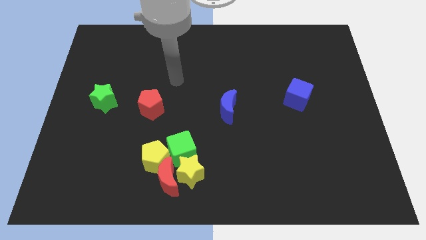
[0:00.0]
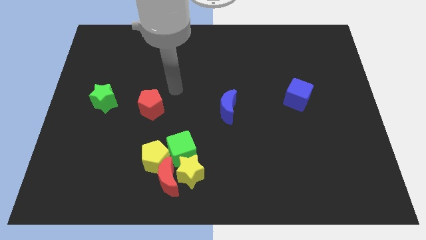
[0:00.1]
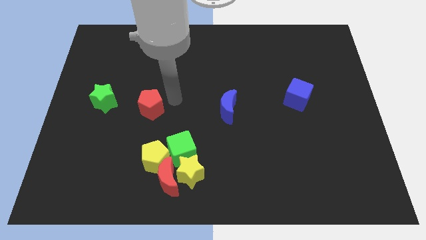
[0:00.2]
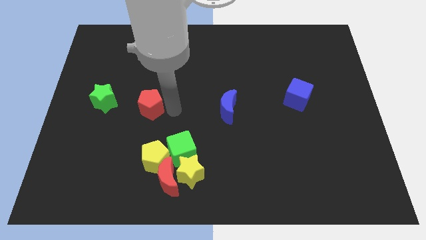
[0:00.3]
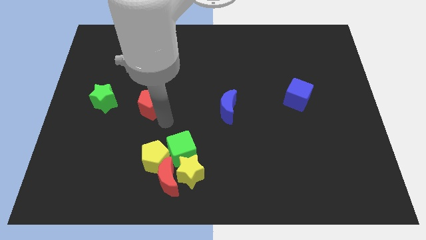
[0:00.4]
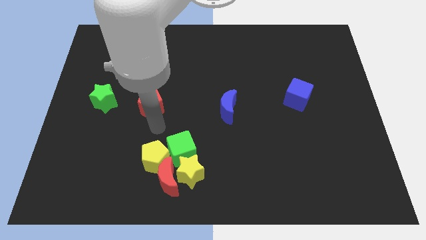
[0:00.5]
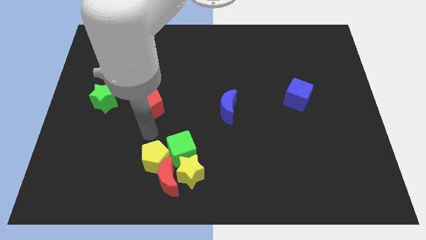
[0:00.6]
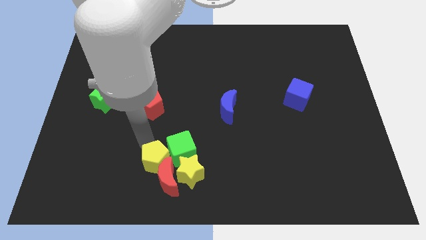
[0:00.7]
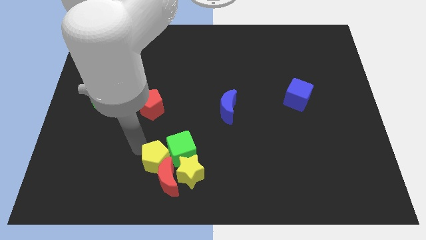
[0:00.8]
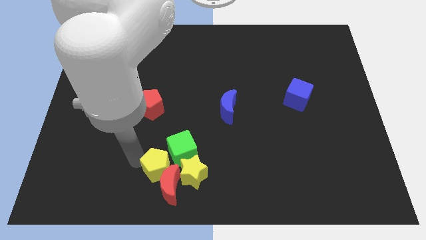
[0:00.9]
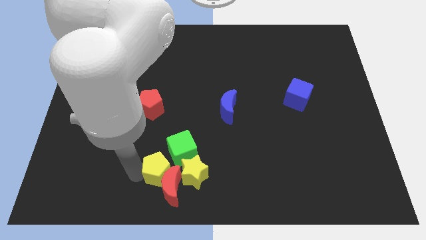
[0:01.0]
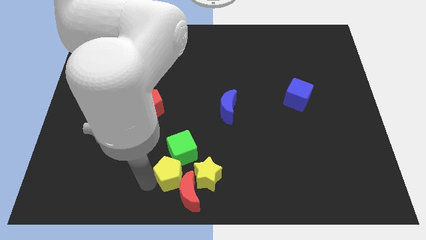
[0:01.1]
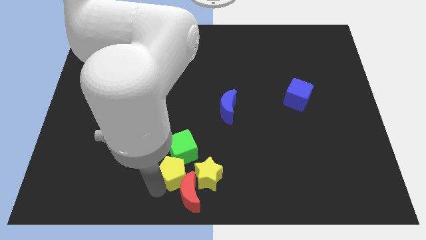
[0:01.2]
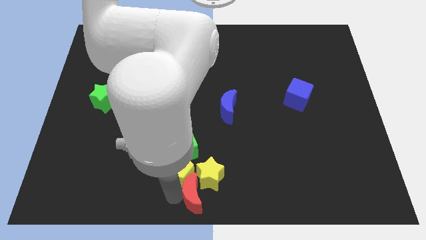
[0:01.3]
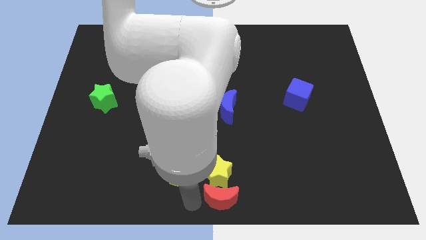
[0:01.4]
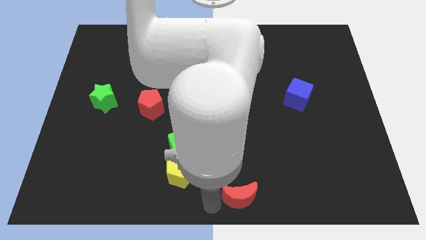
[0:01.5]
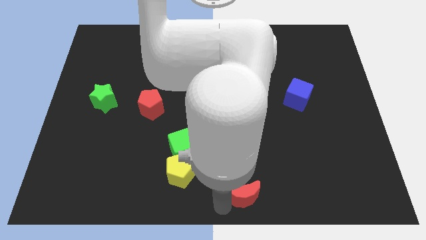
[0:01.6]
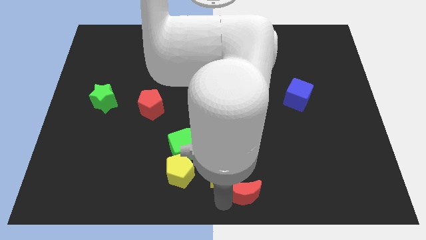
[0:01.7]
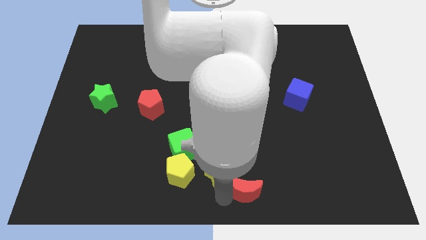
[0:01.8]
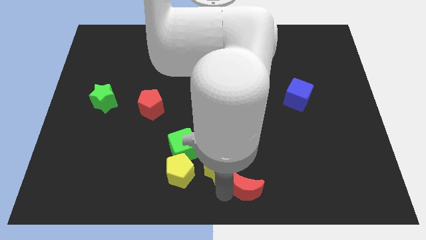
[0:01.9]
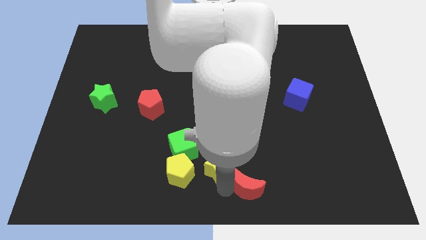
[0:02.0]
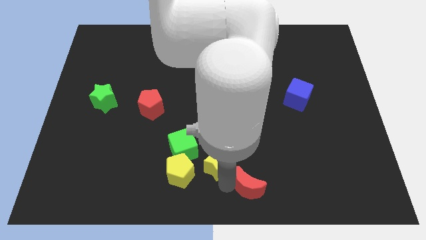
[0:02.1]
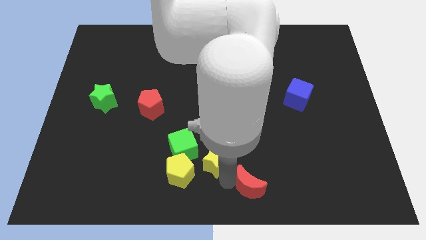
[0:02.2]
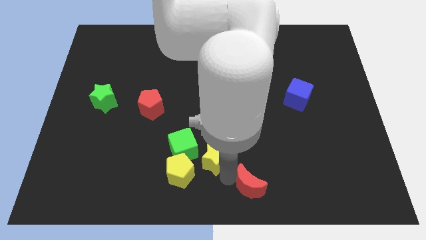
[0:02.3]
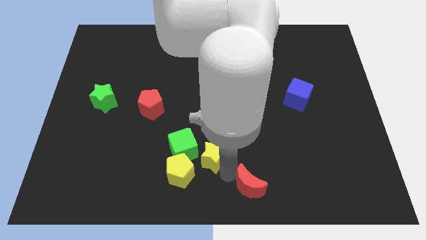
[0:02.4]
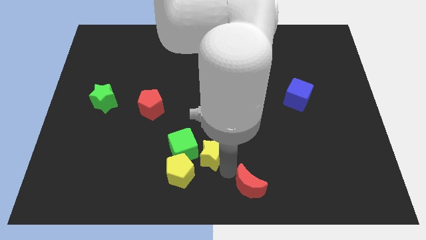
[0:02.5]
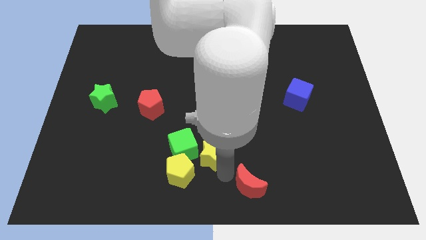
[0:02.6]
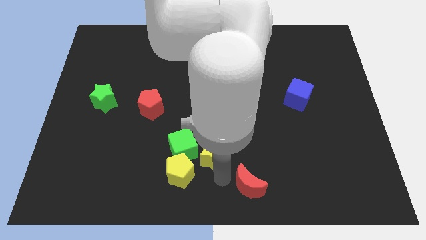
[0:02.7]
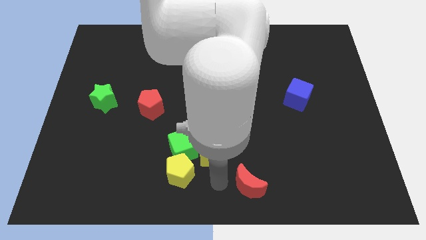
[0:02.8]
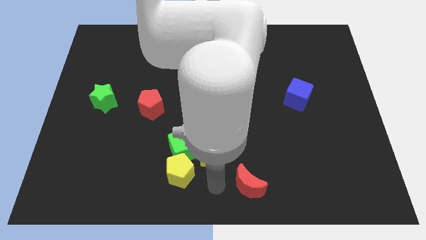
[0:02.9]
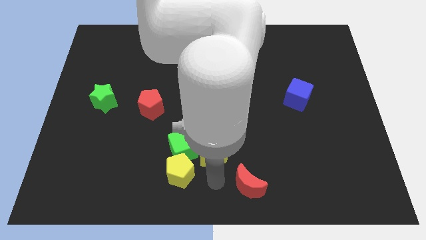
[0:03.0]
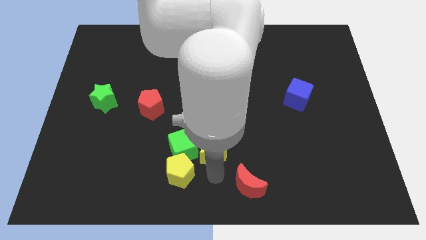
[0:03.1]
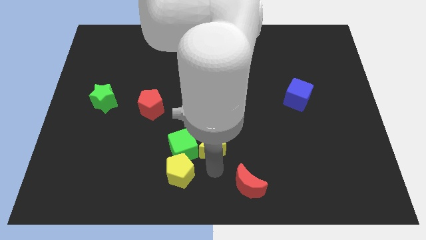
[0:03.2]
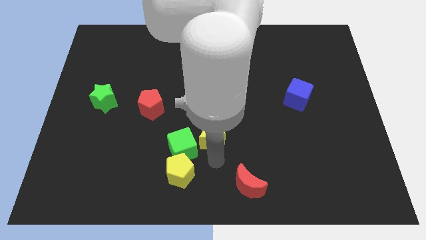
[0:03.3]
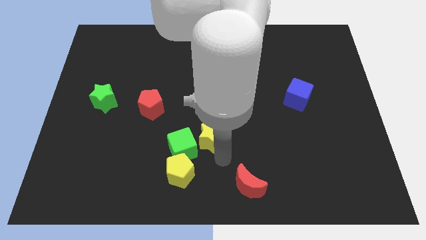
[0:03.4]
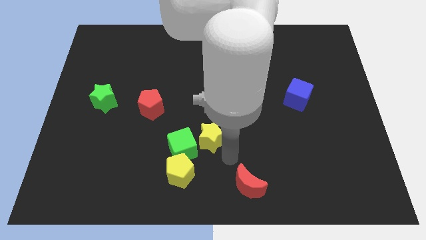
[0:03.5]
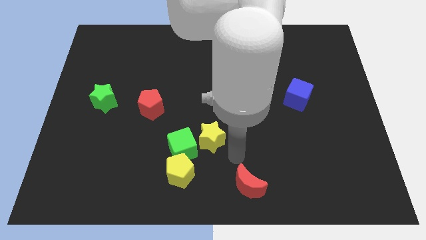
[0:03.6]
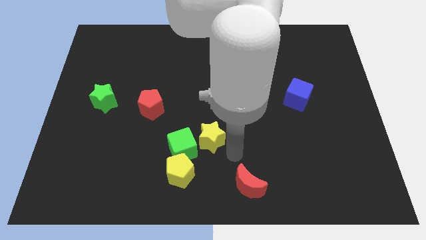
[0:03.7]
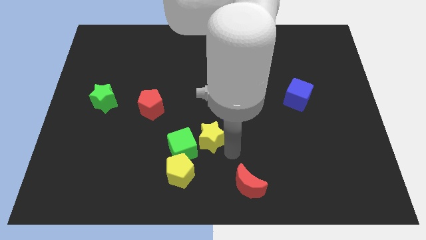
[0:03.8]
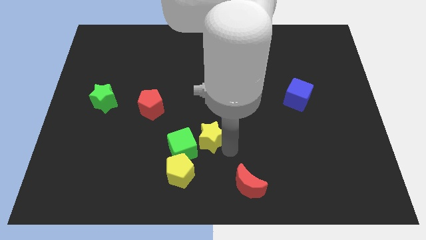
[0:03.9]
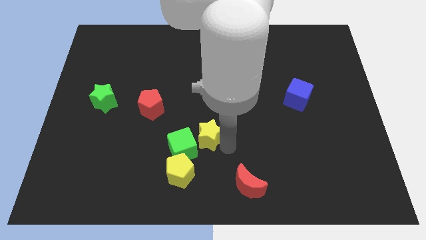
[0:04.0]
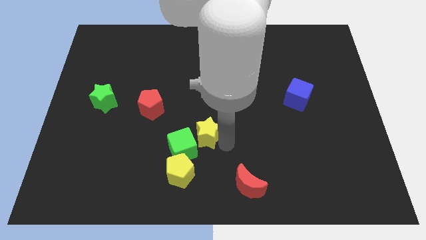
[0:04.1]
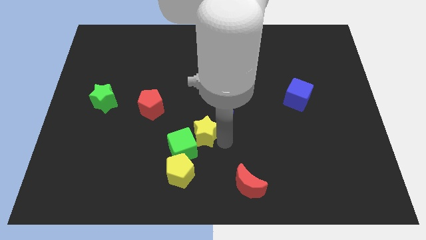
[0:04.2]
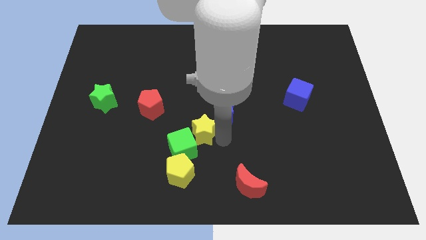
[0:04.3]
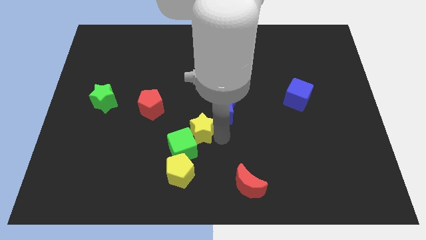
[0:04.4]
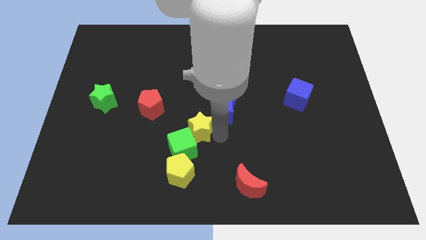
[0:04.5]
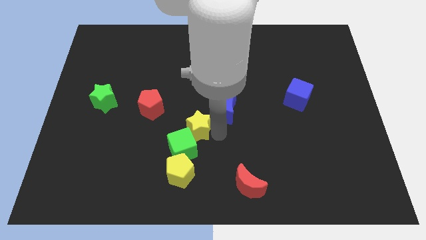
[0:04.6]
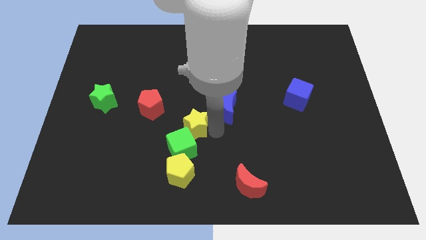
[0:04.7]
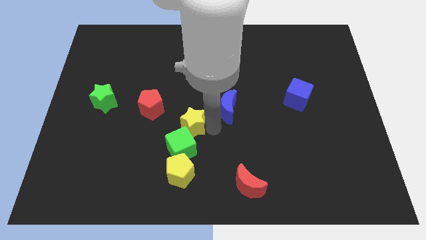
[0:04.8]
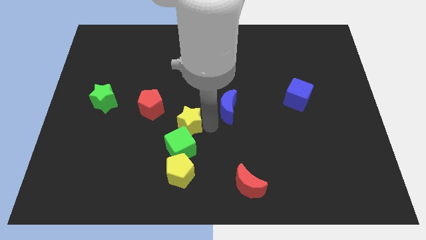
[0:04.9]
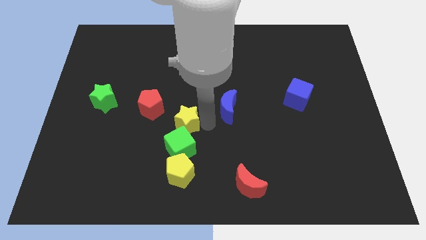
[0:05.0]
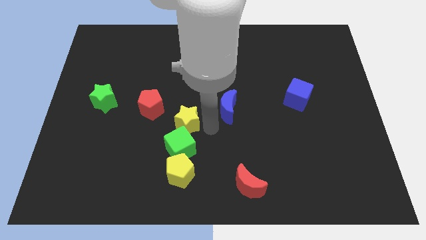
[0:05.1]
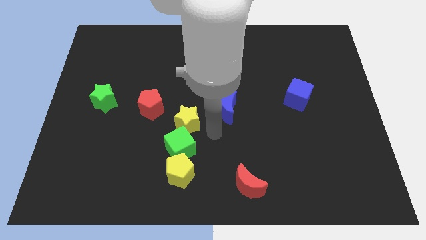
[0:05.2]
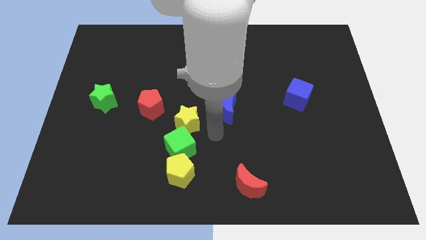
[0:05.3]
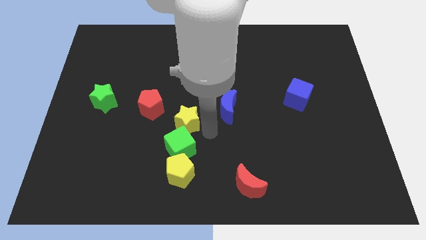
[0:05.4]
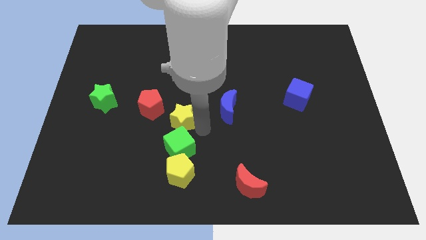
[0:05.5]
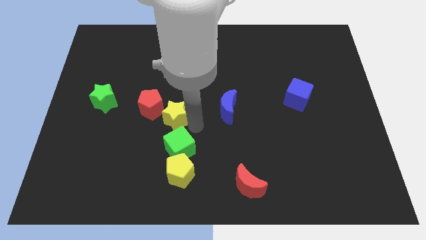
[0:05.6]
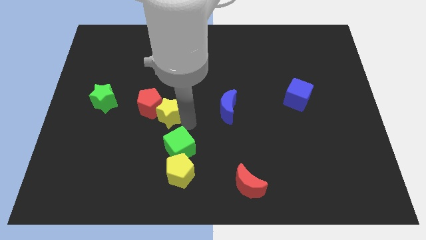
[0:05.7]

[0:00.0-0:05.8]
slide the yellow star towards the red pentagon

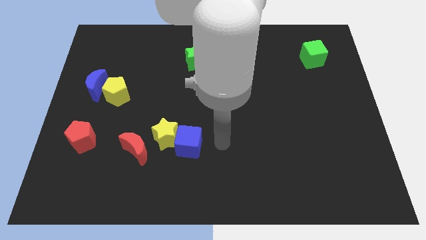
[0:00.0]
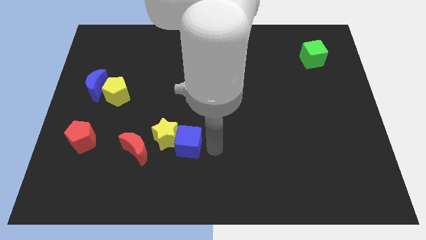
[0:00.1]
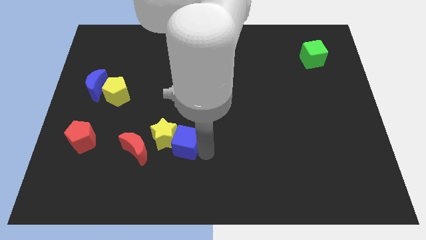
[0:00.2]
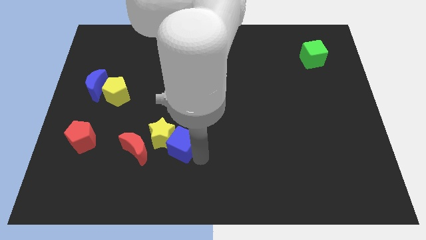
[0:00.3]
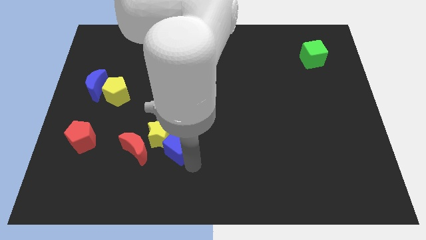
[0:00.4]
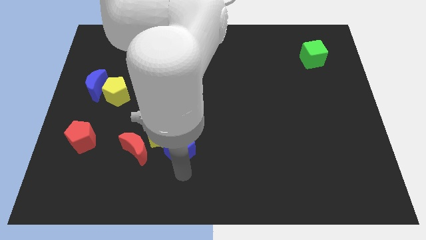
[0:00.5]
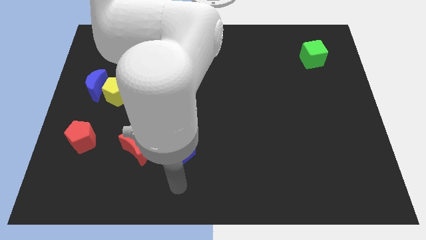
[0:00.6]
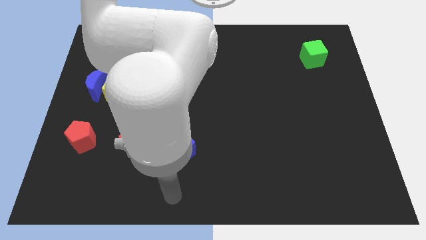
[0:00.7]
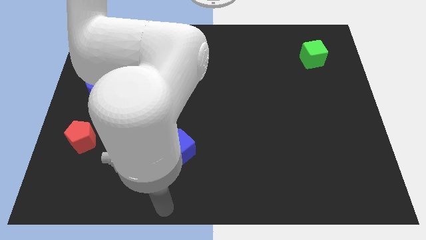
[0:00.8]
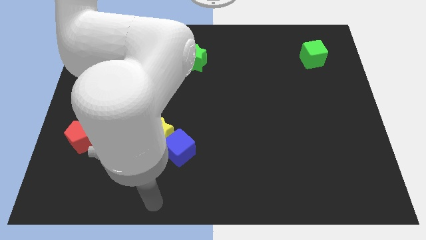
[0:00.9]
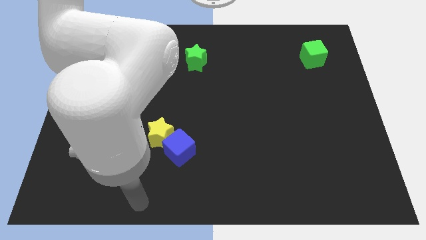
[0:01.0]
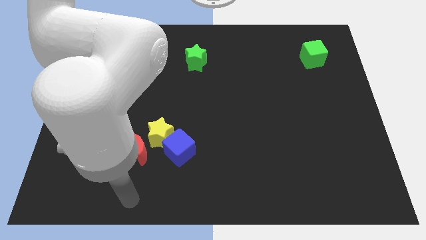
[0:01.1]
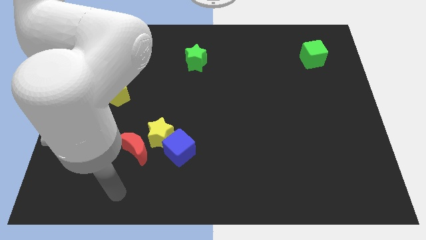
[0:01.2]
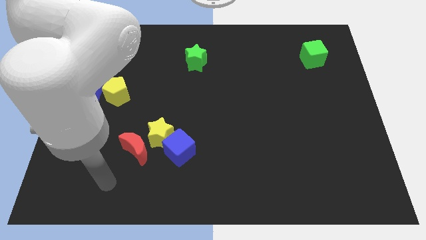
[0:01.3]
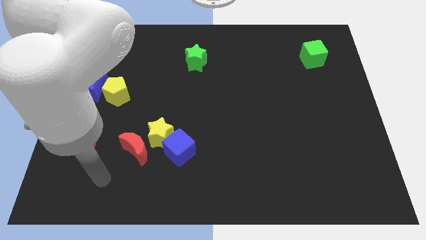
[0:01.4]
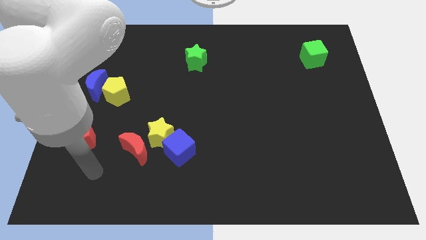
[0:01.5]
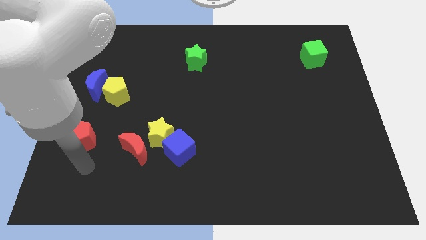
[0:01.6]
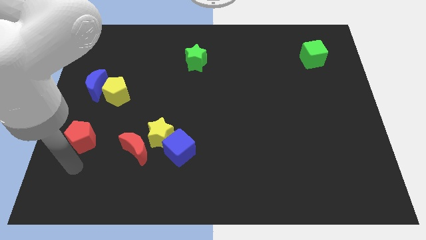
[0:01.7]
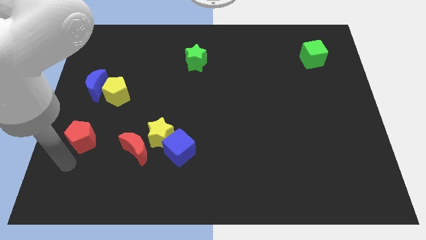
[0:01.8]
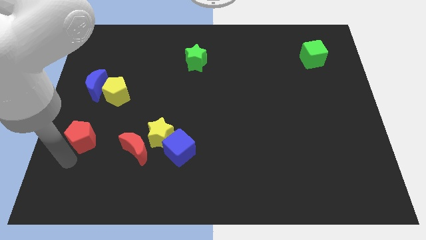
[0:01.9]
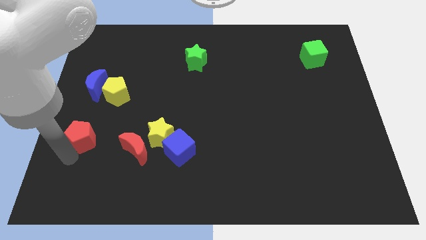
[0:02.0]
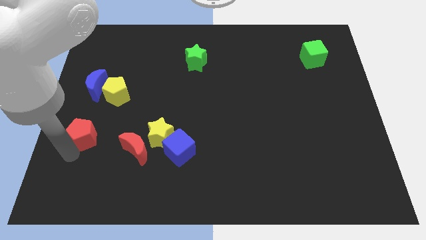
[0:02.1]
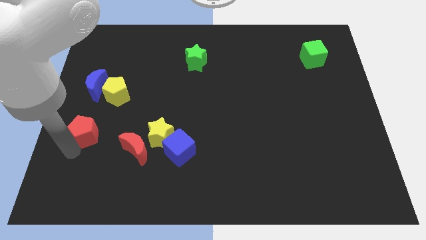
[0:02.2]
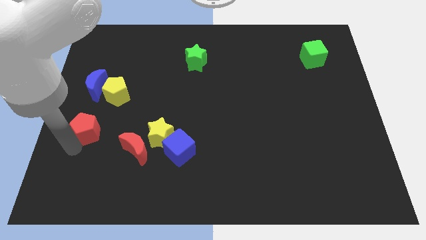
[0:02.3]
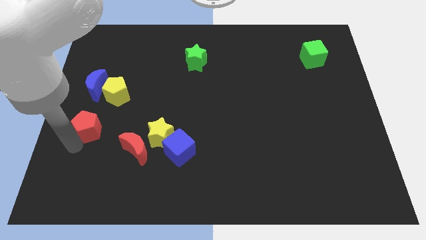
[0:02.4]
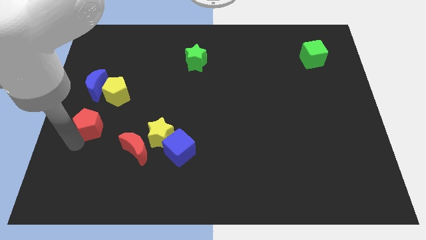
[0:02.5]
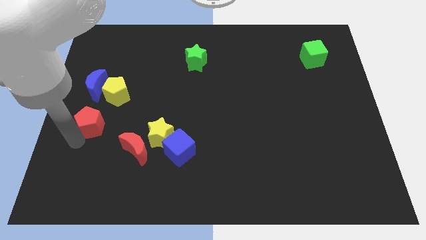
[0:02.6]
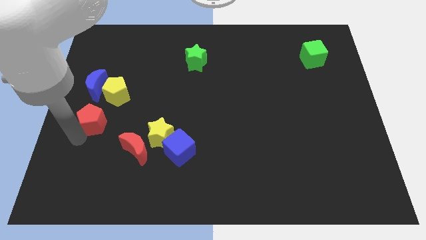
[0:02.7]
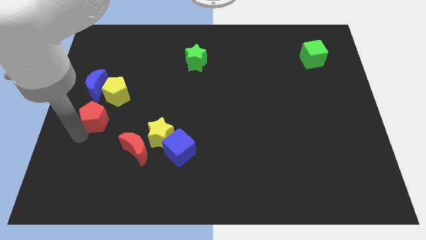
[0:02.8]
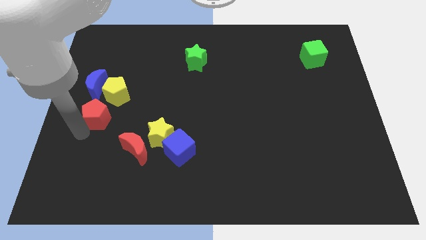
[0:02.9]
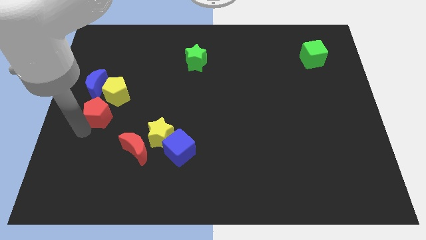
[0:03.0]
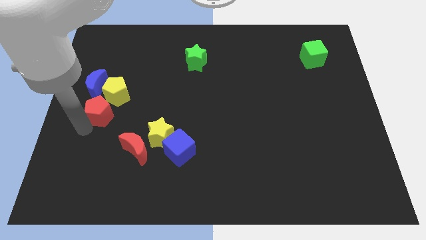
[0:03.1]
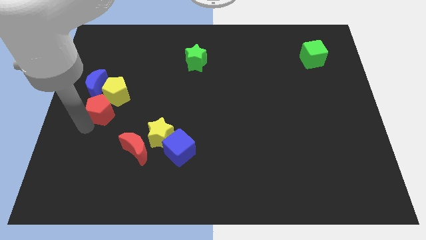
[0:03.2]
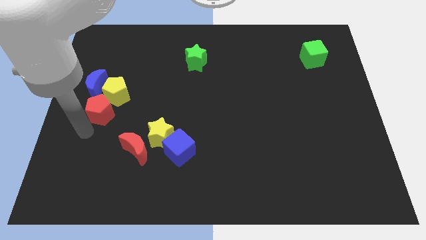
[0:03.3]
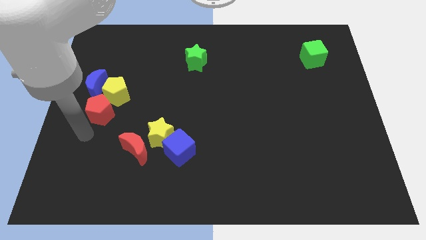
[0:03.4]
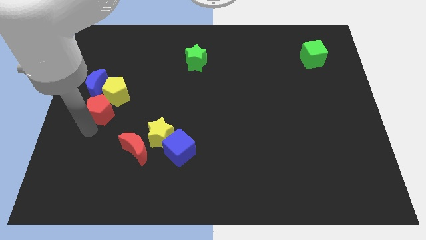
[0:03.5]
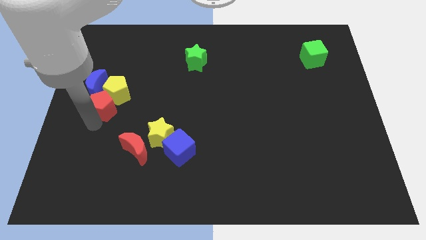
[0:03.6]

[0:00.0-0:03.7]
move the red pentagon towards the yellow pentagon
